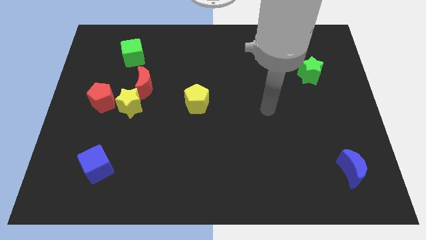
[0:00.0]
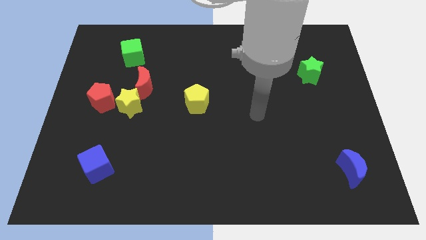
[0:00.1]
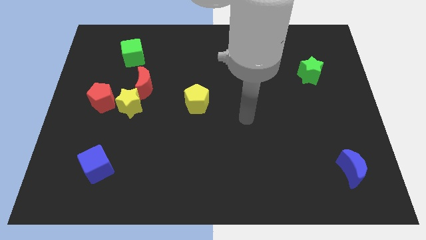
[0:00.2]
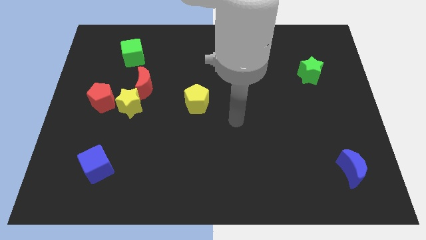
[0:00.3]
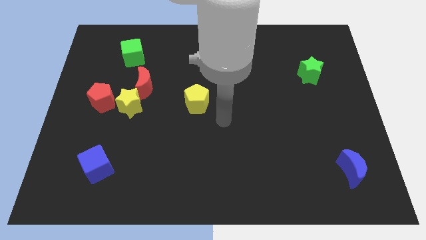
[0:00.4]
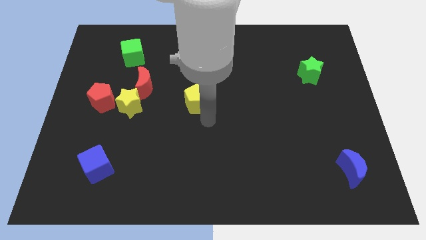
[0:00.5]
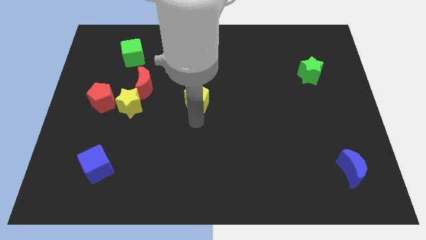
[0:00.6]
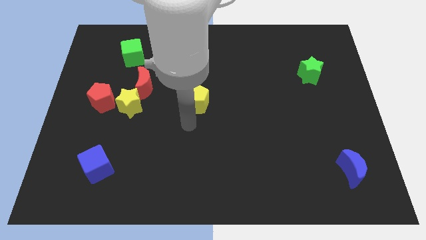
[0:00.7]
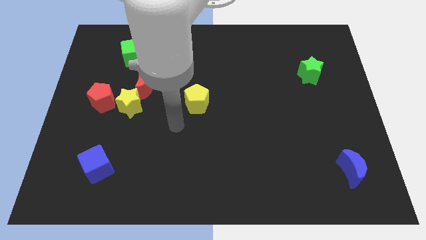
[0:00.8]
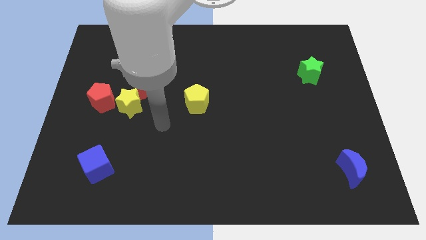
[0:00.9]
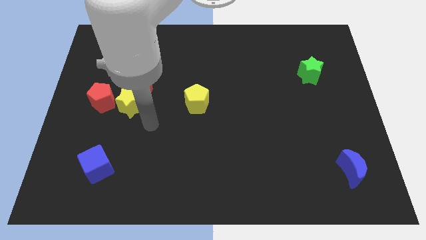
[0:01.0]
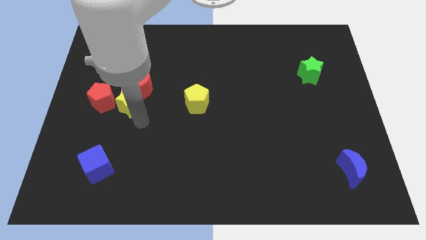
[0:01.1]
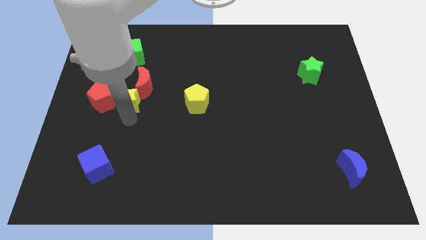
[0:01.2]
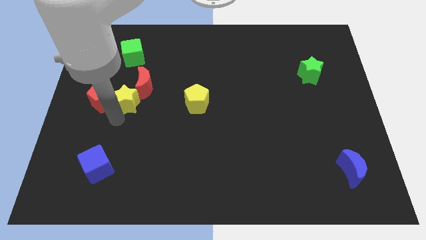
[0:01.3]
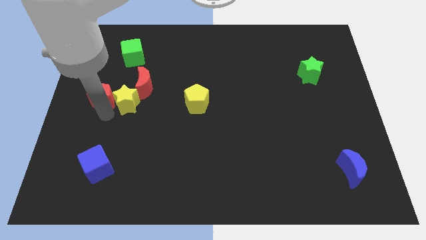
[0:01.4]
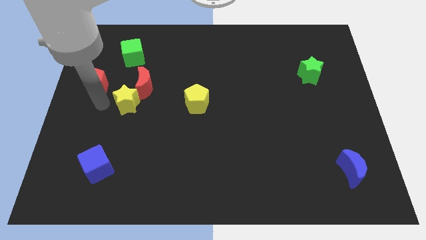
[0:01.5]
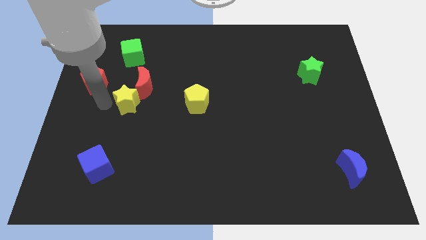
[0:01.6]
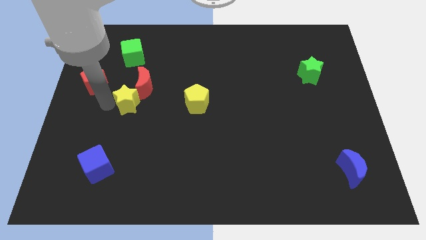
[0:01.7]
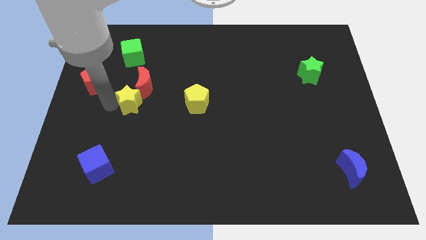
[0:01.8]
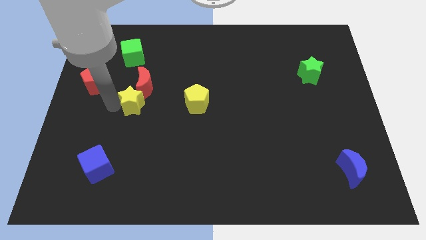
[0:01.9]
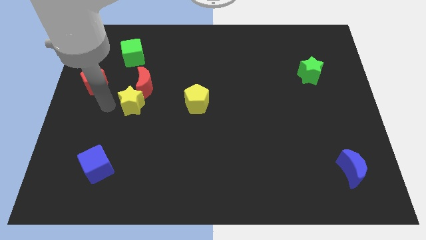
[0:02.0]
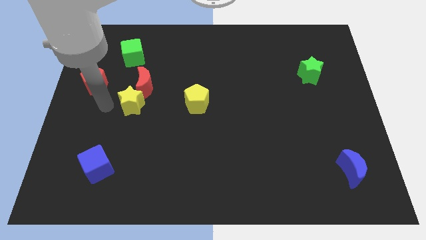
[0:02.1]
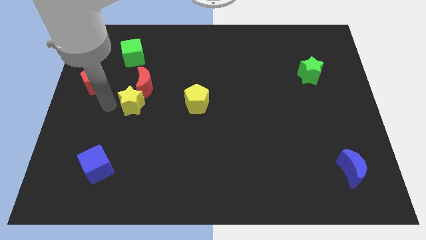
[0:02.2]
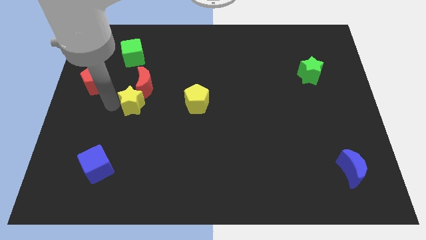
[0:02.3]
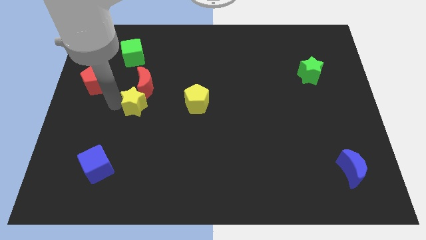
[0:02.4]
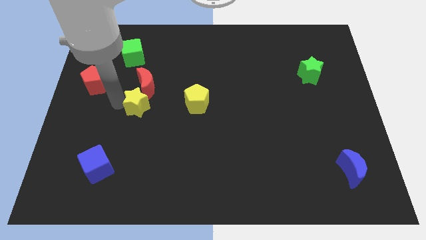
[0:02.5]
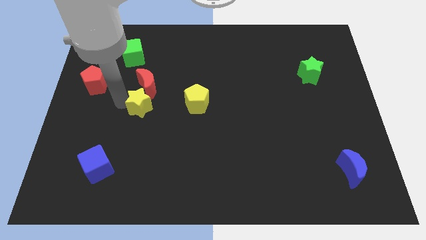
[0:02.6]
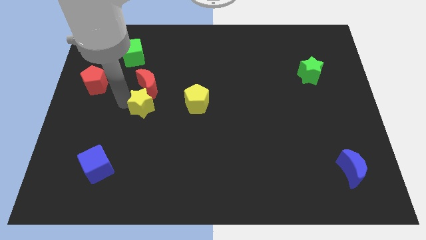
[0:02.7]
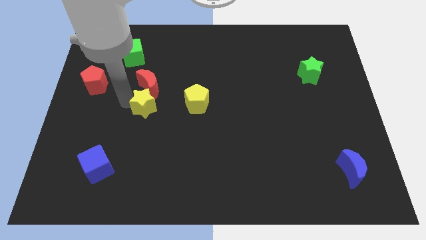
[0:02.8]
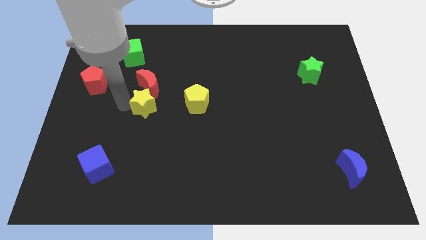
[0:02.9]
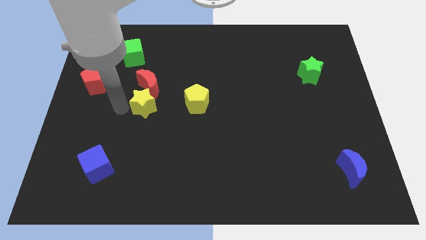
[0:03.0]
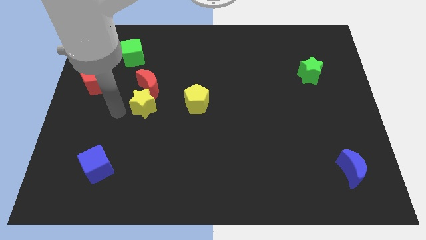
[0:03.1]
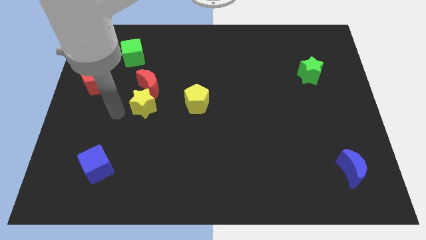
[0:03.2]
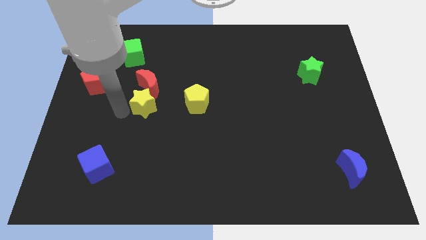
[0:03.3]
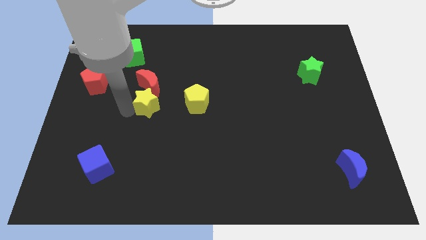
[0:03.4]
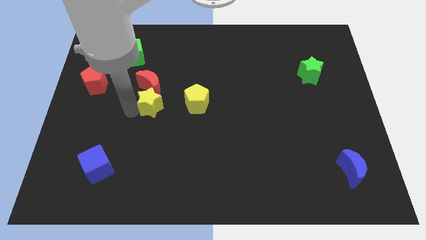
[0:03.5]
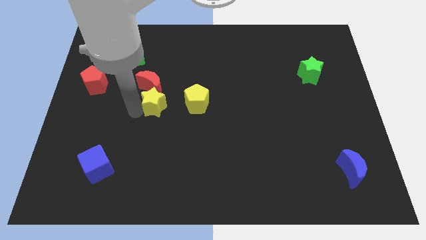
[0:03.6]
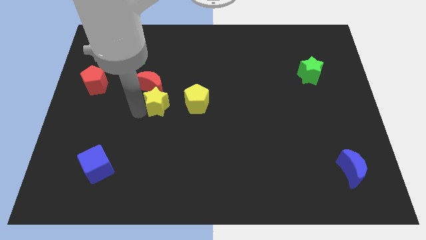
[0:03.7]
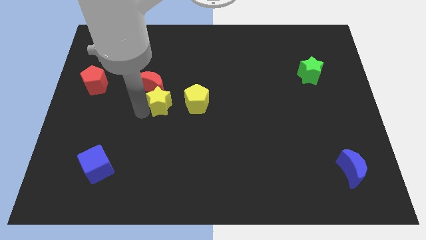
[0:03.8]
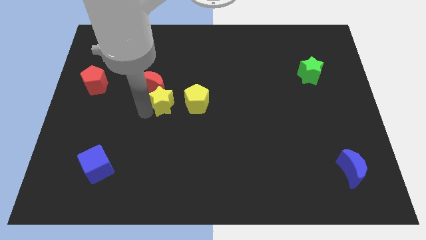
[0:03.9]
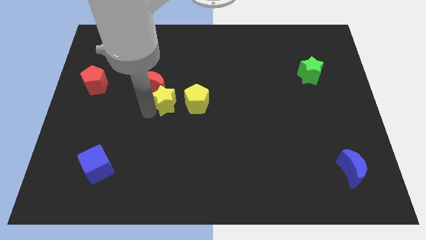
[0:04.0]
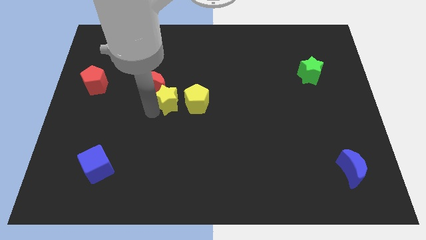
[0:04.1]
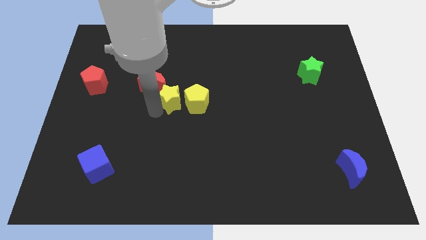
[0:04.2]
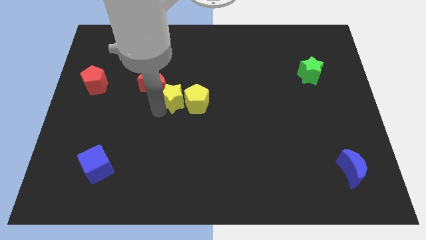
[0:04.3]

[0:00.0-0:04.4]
slide the yellow star up and then right a little bit

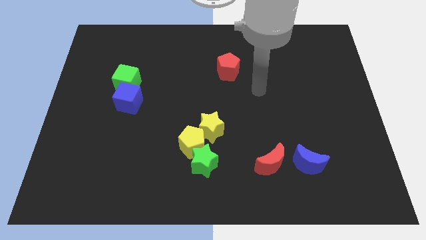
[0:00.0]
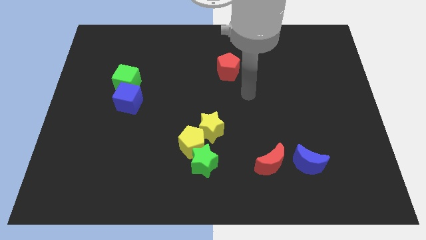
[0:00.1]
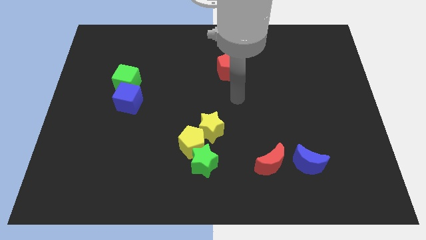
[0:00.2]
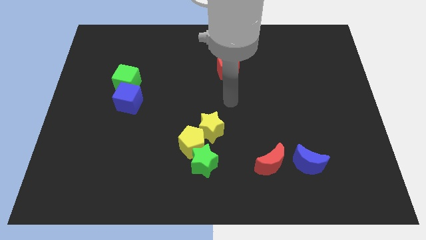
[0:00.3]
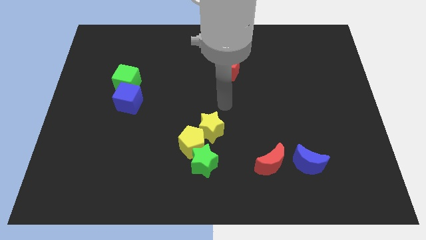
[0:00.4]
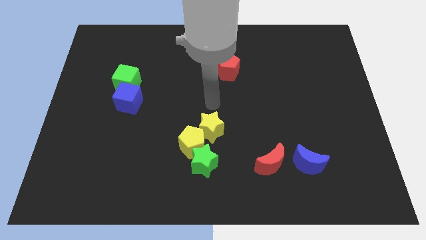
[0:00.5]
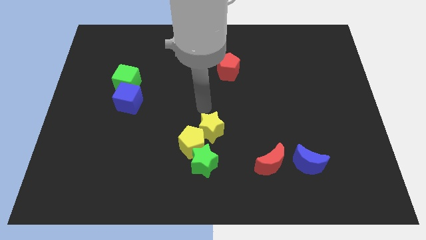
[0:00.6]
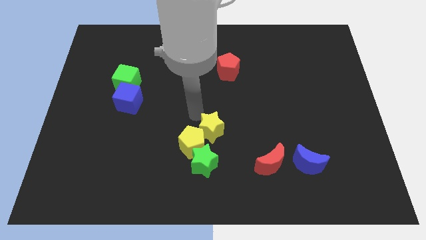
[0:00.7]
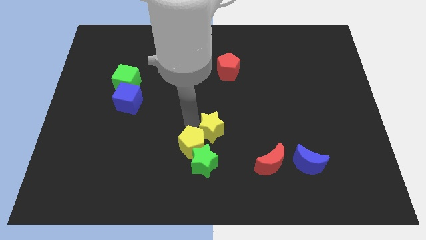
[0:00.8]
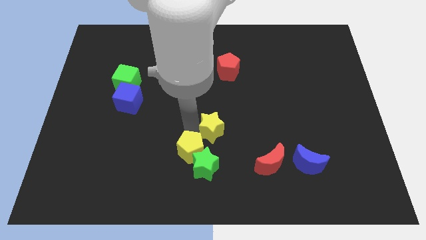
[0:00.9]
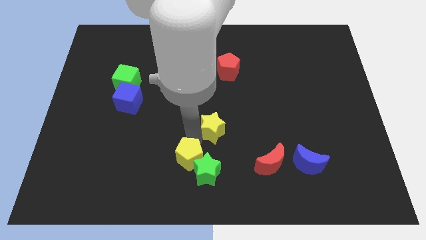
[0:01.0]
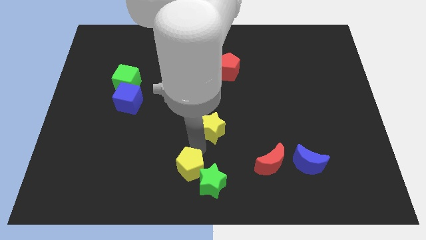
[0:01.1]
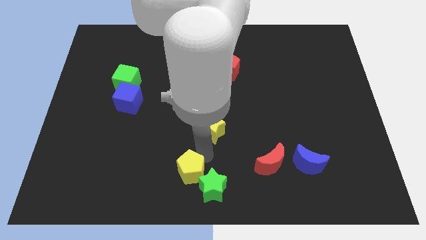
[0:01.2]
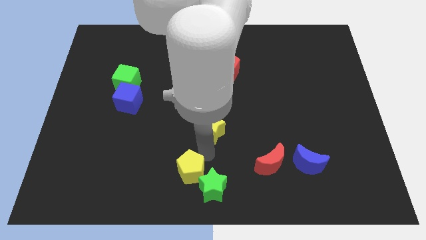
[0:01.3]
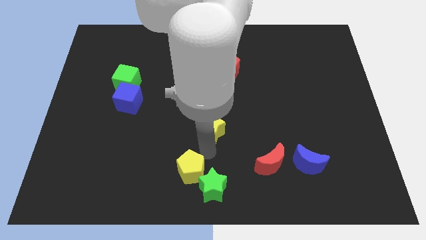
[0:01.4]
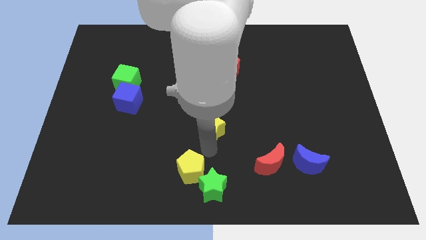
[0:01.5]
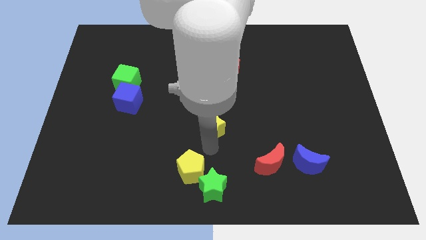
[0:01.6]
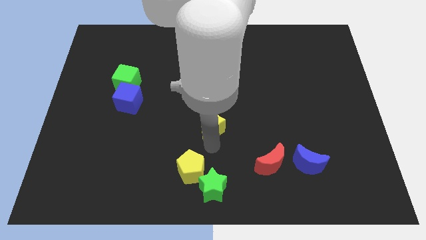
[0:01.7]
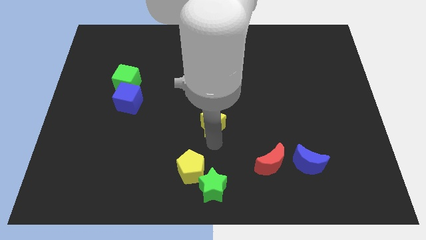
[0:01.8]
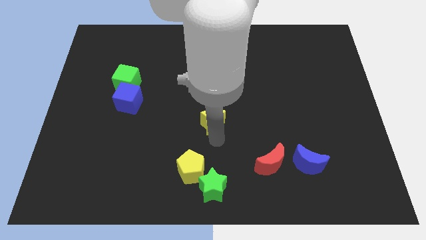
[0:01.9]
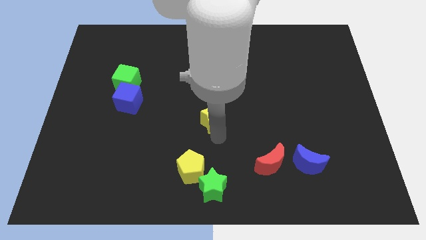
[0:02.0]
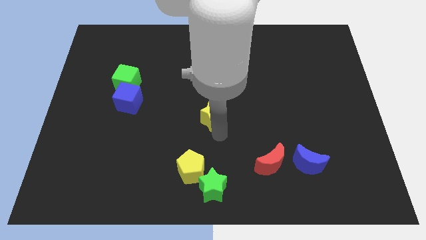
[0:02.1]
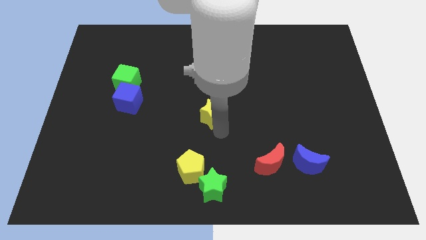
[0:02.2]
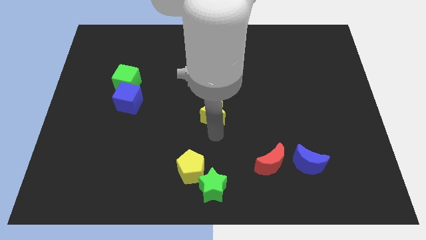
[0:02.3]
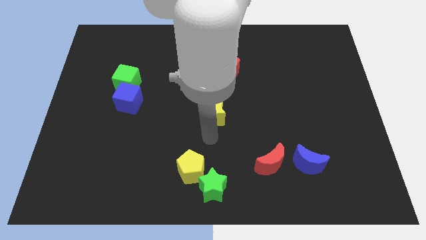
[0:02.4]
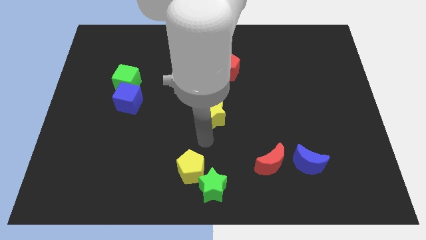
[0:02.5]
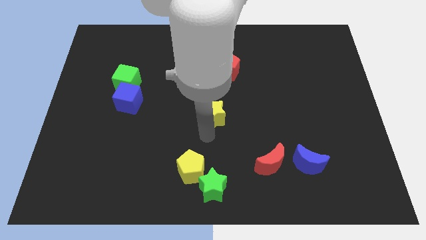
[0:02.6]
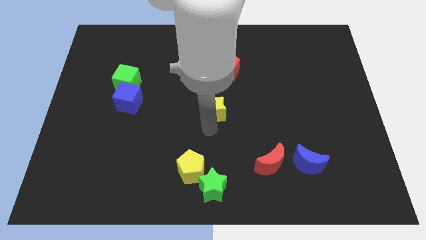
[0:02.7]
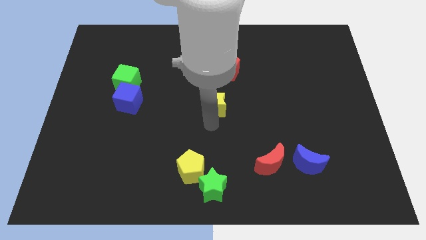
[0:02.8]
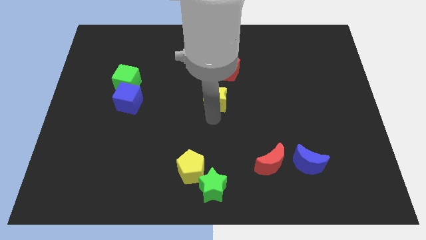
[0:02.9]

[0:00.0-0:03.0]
push the yellow star up somewhat

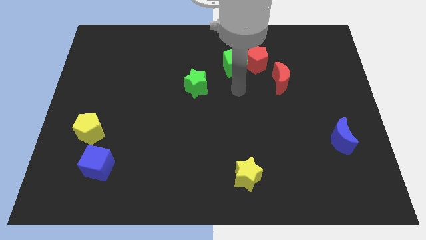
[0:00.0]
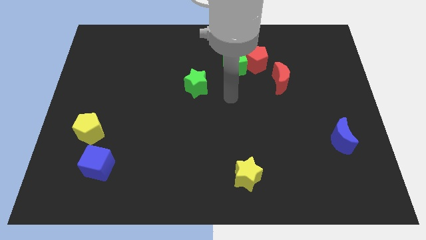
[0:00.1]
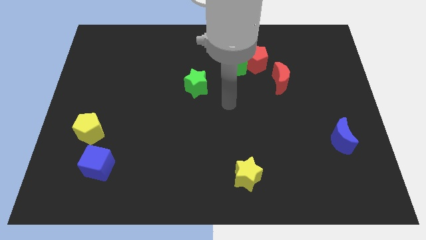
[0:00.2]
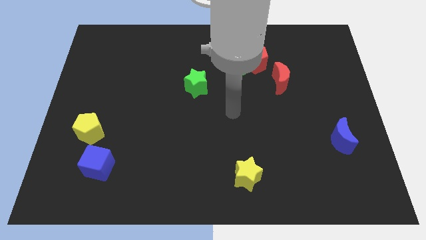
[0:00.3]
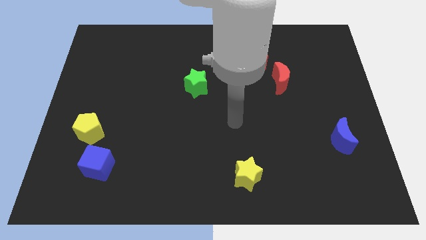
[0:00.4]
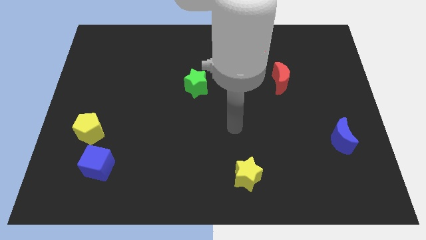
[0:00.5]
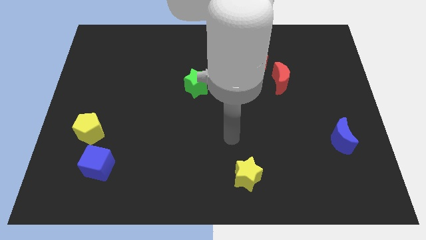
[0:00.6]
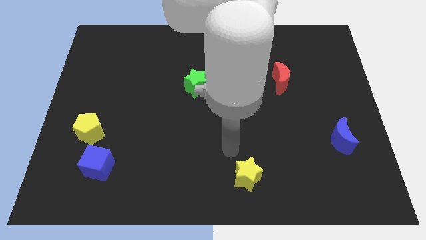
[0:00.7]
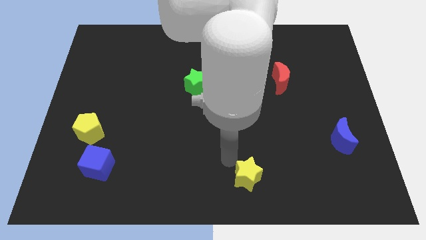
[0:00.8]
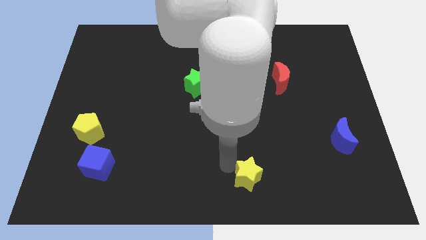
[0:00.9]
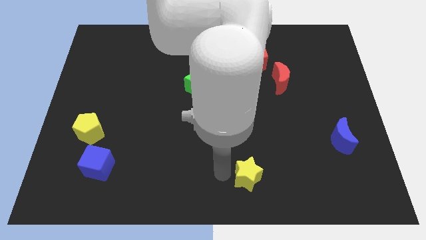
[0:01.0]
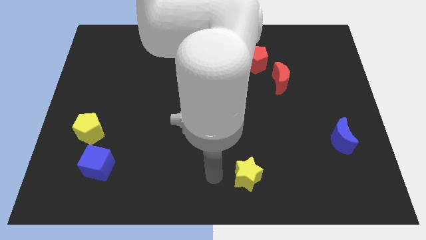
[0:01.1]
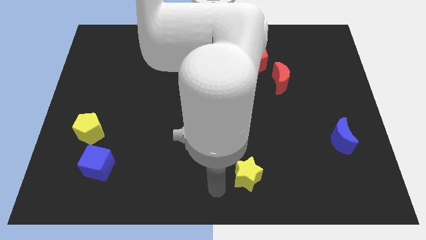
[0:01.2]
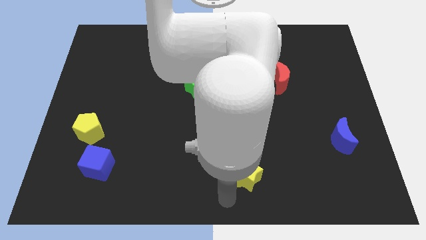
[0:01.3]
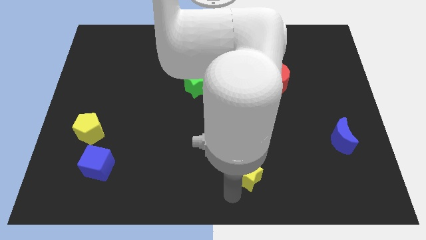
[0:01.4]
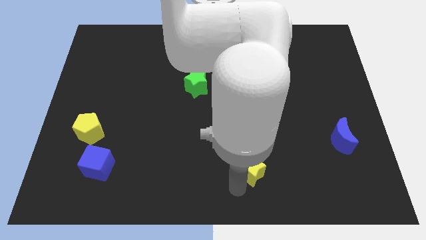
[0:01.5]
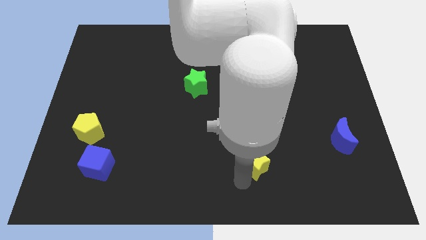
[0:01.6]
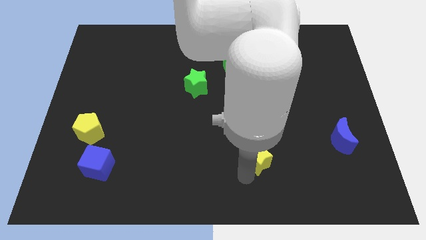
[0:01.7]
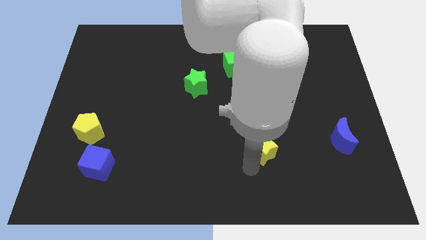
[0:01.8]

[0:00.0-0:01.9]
push the yellow star upwards and then to the right slightly
